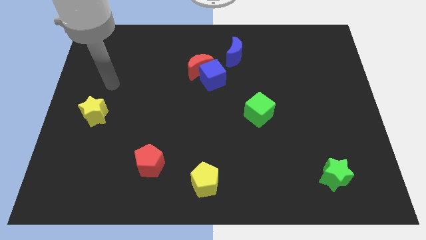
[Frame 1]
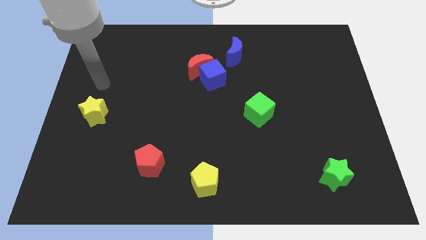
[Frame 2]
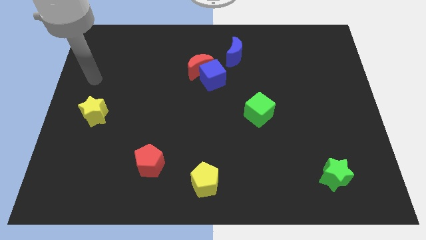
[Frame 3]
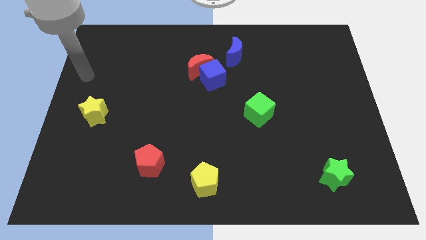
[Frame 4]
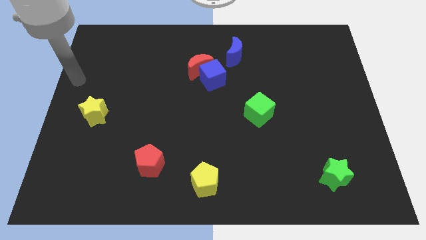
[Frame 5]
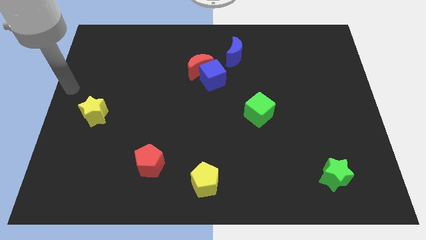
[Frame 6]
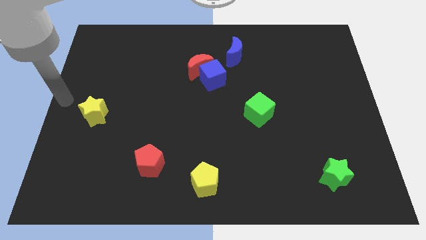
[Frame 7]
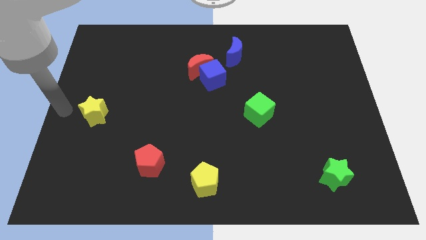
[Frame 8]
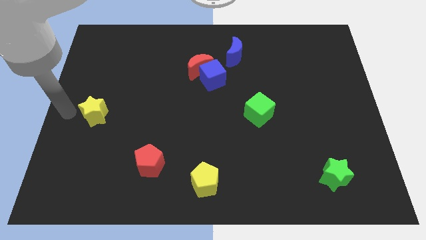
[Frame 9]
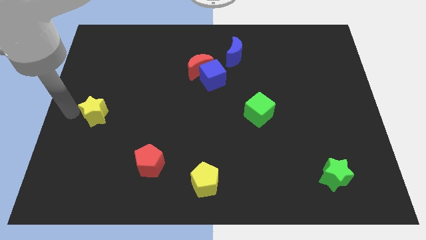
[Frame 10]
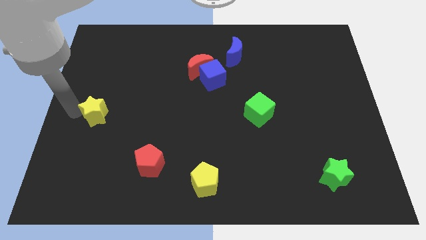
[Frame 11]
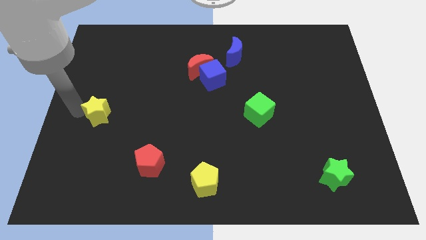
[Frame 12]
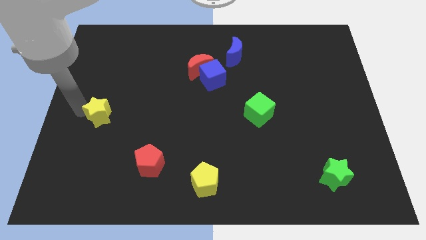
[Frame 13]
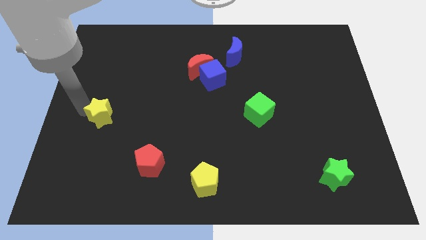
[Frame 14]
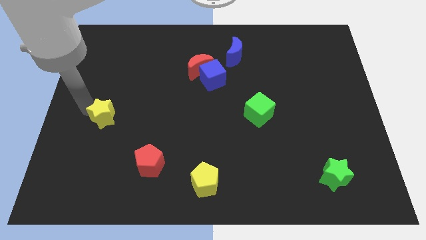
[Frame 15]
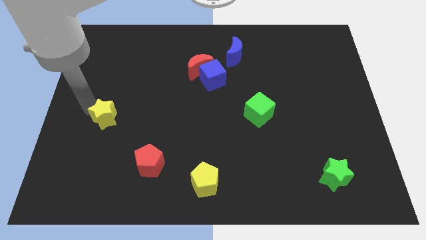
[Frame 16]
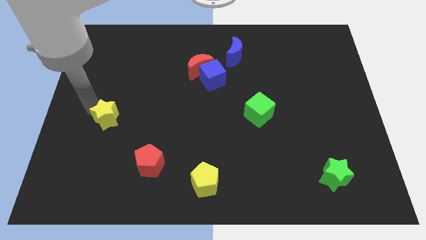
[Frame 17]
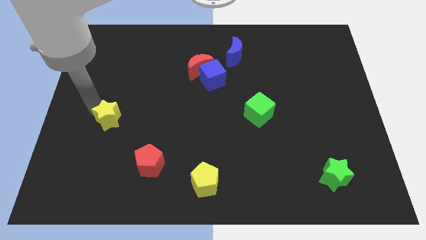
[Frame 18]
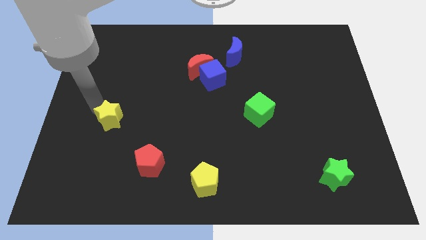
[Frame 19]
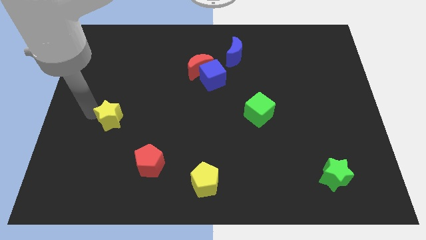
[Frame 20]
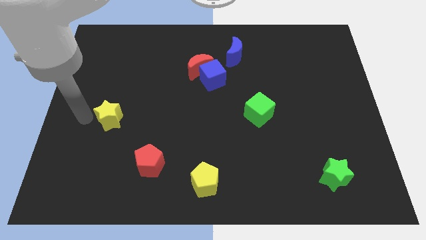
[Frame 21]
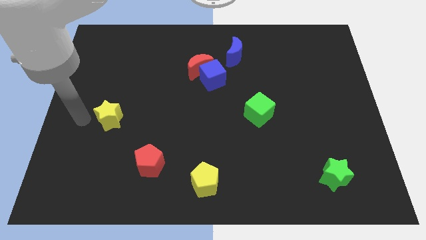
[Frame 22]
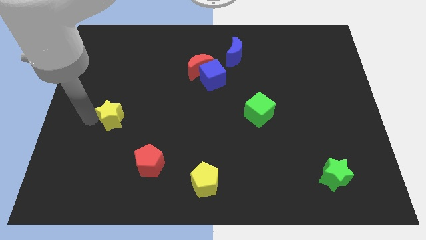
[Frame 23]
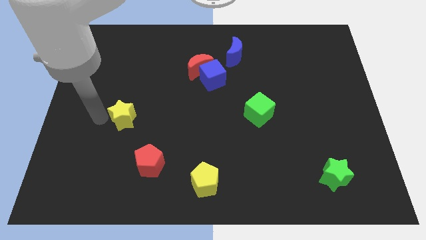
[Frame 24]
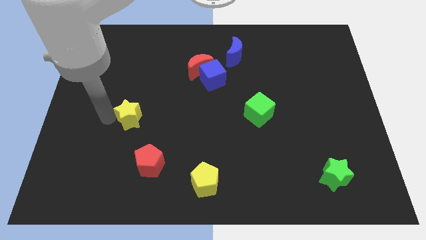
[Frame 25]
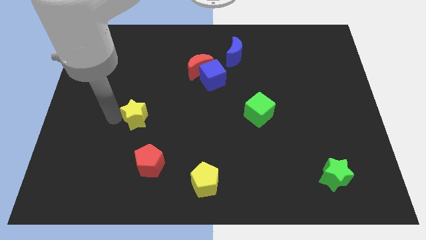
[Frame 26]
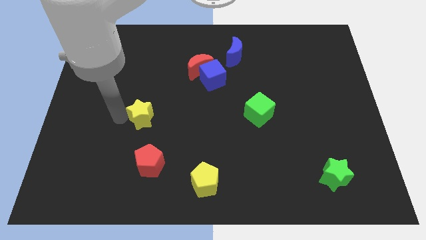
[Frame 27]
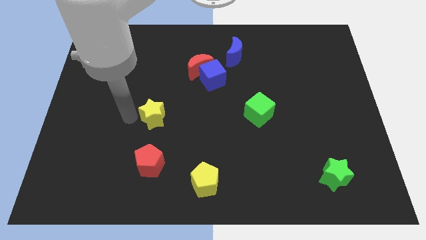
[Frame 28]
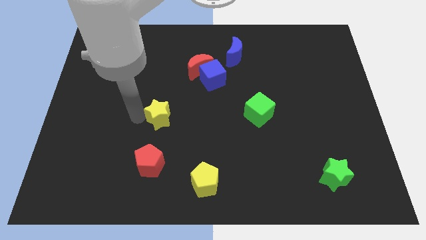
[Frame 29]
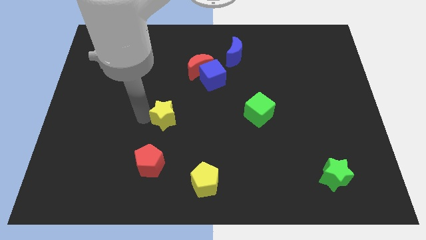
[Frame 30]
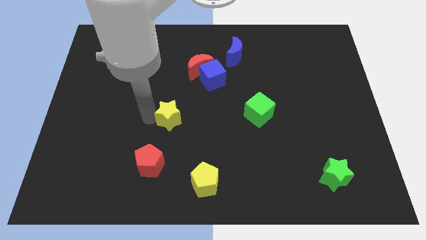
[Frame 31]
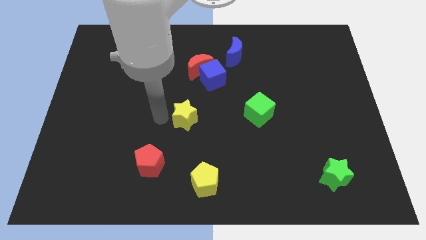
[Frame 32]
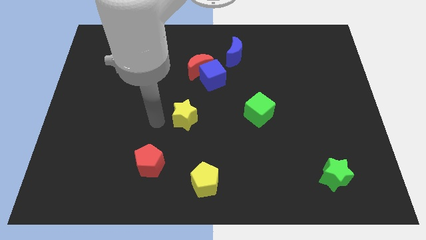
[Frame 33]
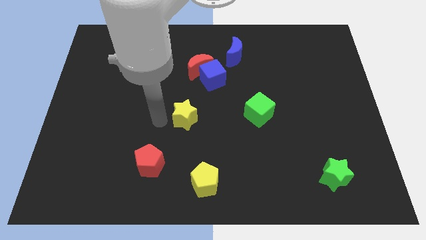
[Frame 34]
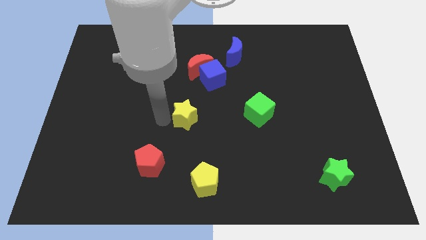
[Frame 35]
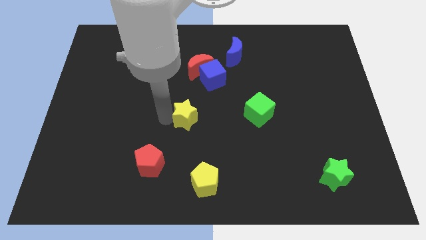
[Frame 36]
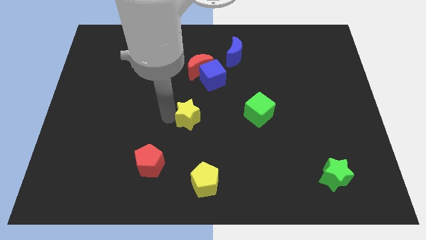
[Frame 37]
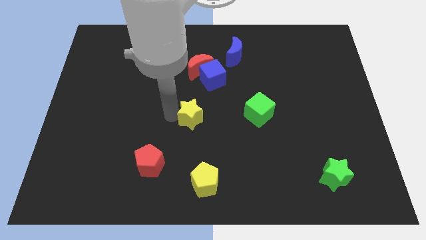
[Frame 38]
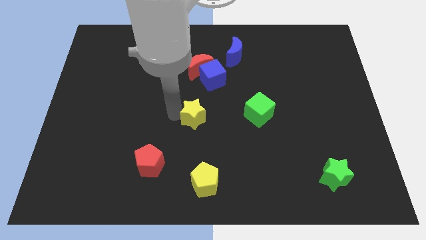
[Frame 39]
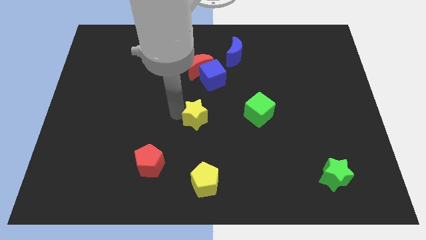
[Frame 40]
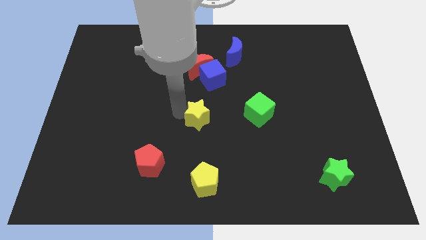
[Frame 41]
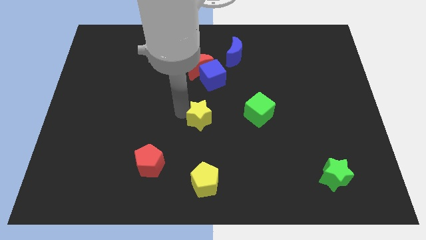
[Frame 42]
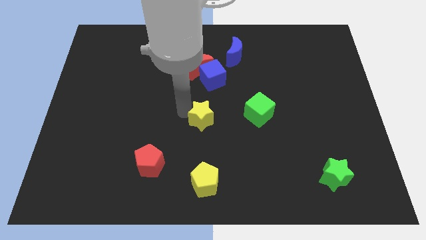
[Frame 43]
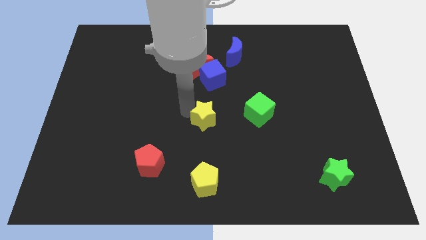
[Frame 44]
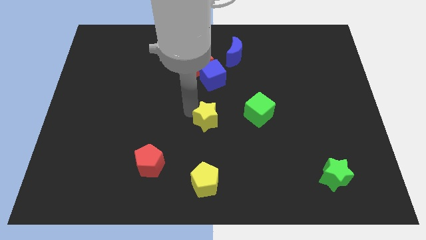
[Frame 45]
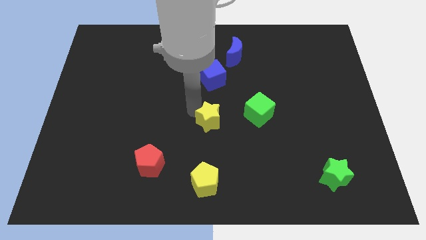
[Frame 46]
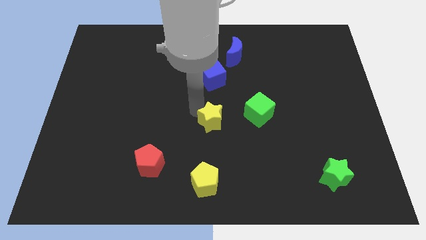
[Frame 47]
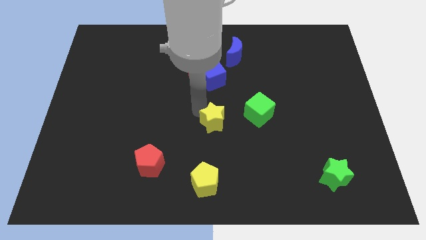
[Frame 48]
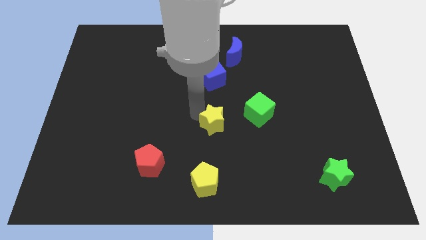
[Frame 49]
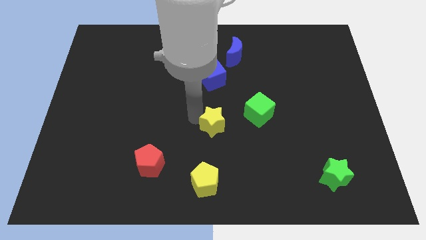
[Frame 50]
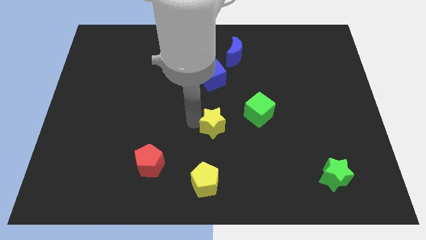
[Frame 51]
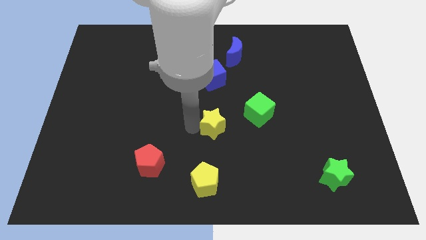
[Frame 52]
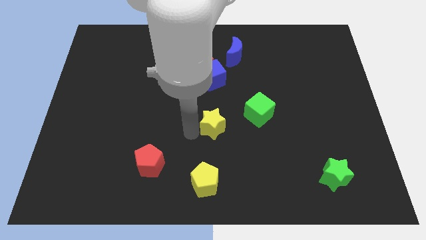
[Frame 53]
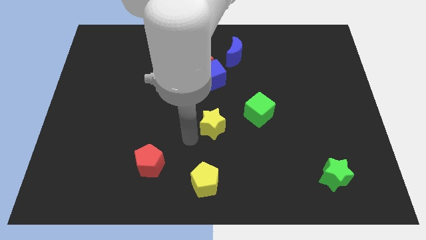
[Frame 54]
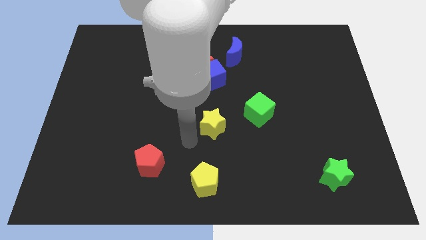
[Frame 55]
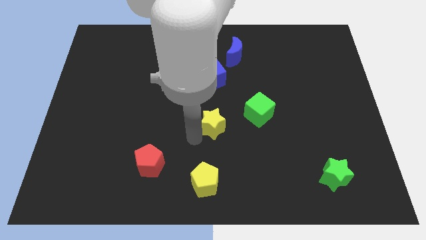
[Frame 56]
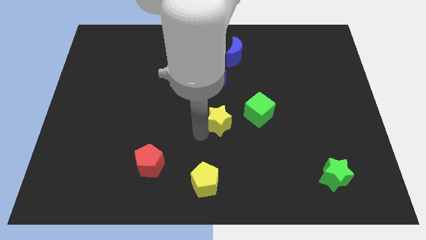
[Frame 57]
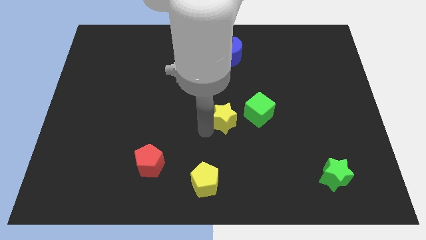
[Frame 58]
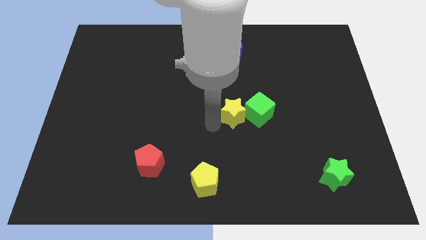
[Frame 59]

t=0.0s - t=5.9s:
move the yellow star towards the green cube

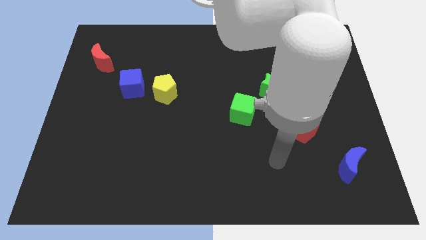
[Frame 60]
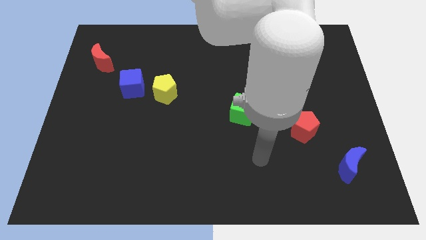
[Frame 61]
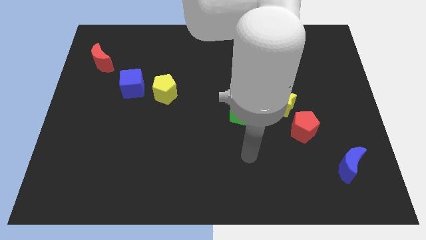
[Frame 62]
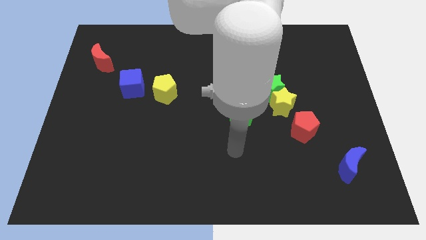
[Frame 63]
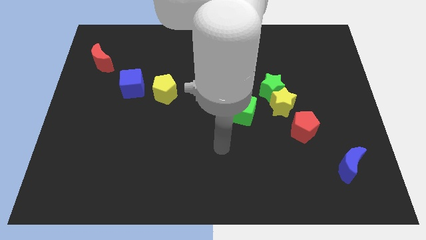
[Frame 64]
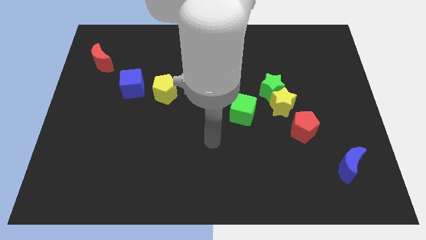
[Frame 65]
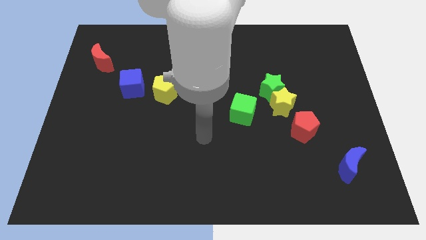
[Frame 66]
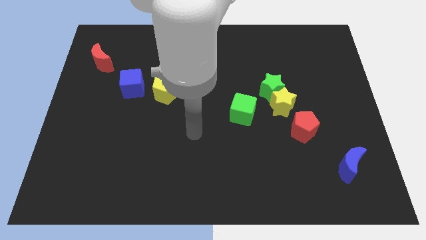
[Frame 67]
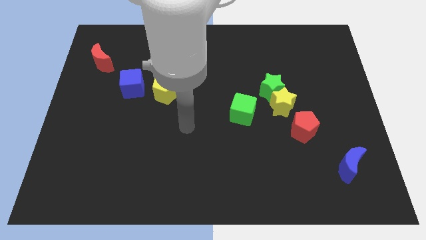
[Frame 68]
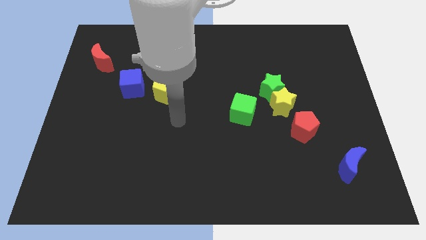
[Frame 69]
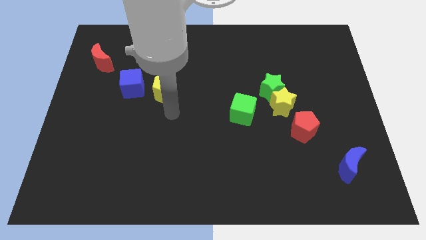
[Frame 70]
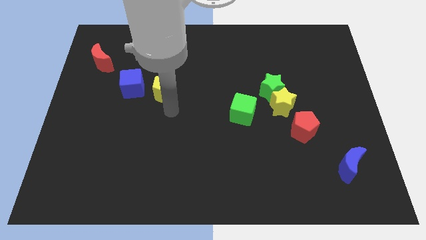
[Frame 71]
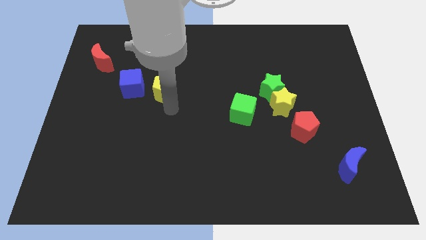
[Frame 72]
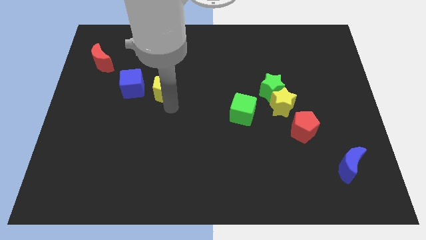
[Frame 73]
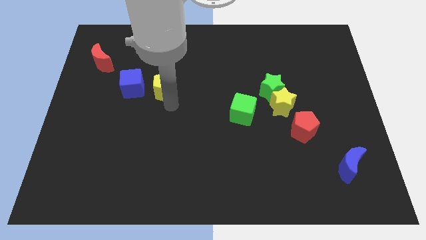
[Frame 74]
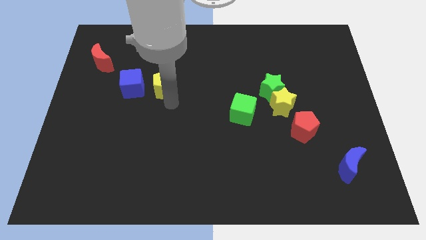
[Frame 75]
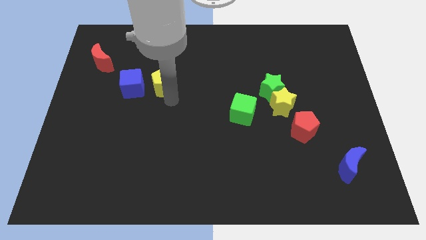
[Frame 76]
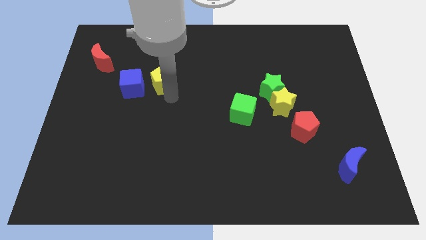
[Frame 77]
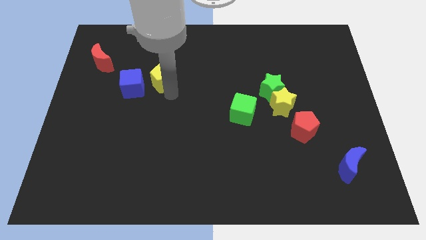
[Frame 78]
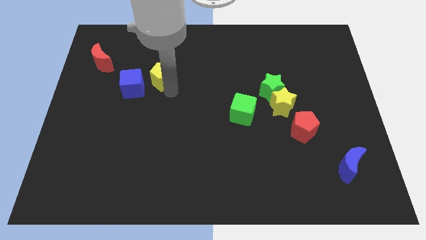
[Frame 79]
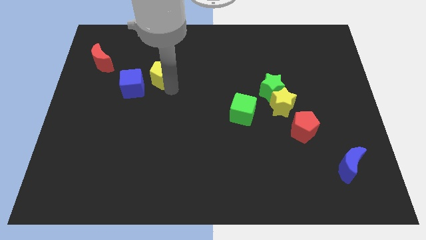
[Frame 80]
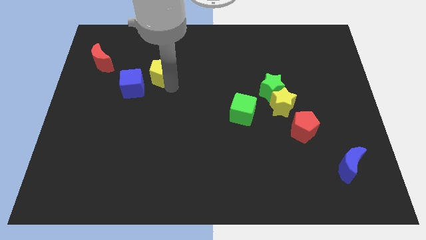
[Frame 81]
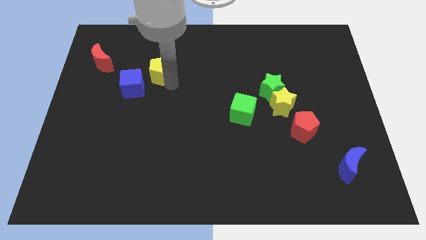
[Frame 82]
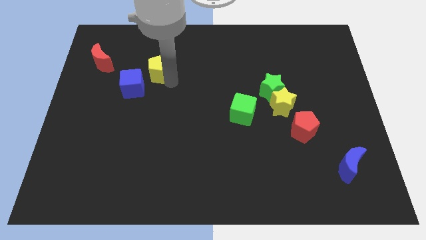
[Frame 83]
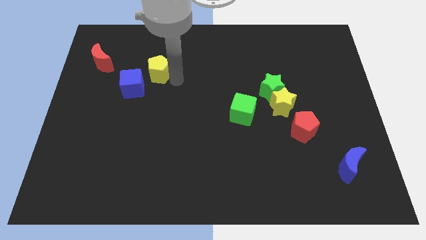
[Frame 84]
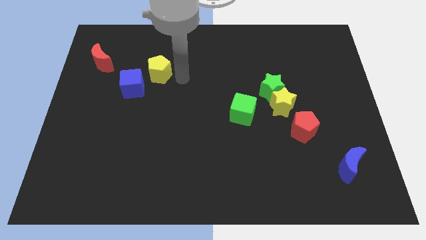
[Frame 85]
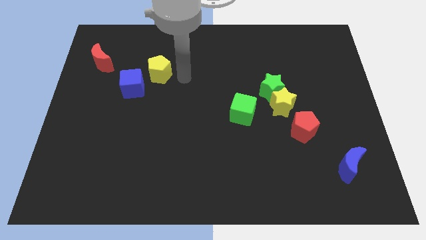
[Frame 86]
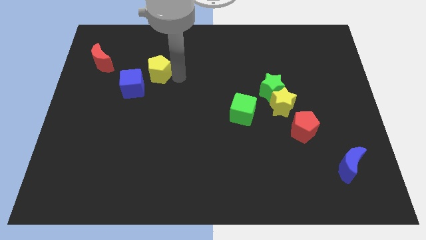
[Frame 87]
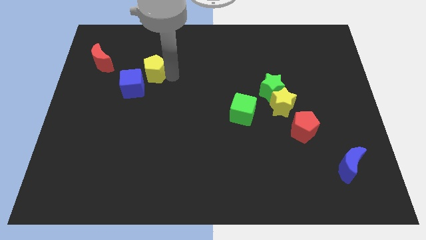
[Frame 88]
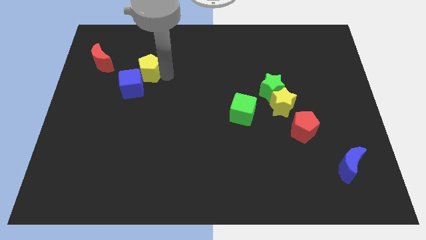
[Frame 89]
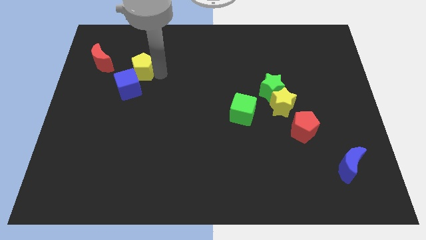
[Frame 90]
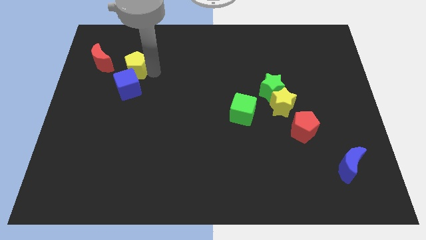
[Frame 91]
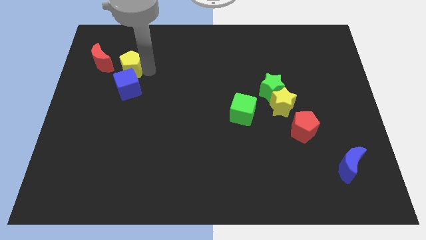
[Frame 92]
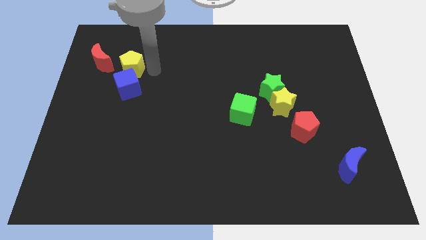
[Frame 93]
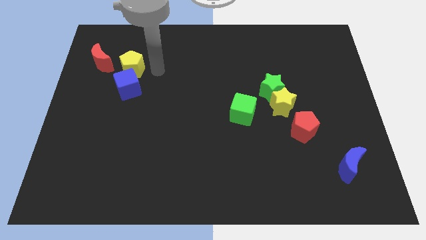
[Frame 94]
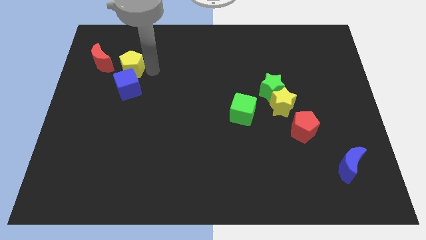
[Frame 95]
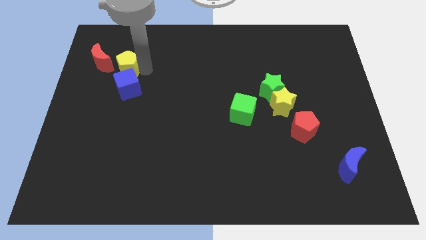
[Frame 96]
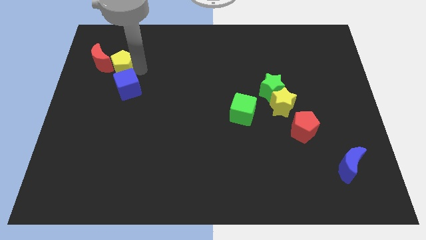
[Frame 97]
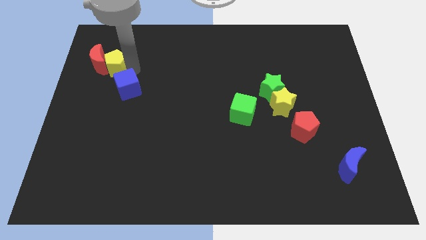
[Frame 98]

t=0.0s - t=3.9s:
put the yellow pentagon next to the red moon
